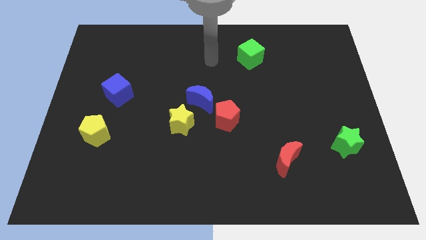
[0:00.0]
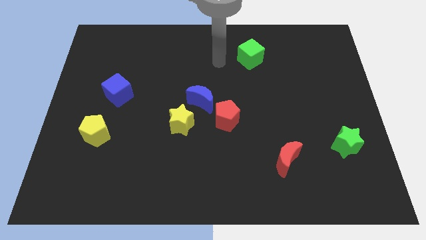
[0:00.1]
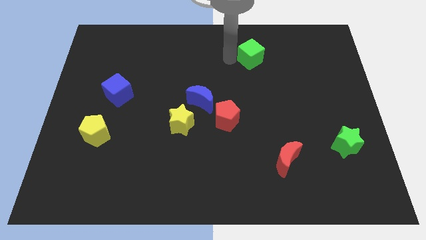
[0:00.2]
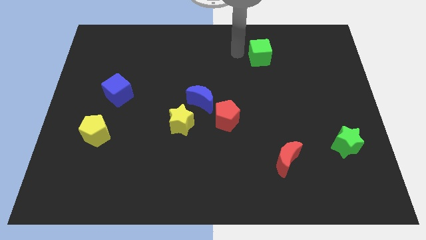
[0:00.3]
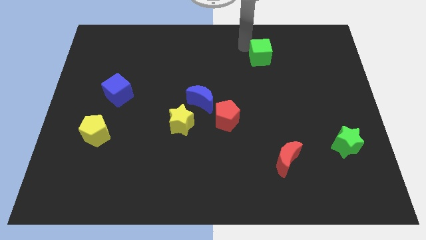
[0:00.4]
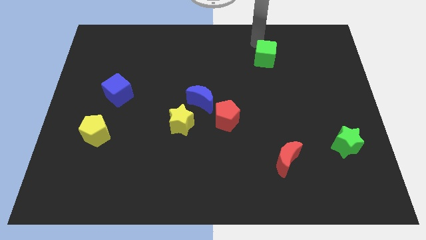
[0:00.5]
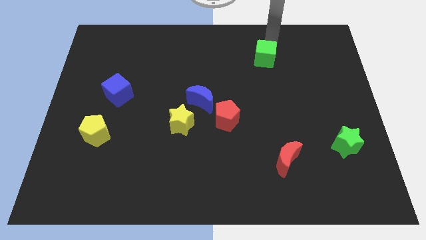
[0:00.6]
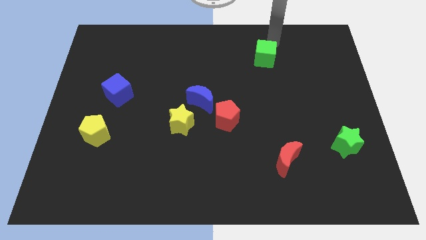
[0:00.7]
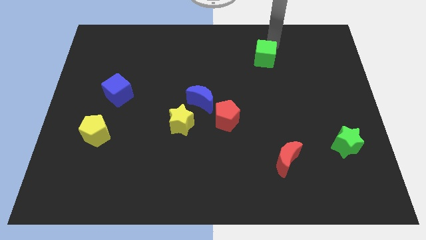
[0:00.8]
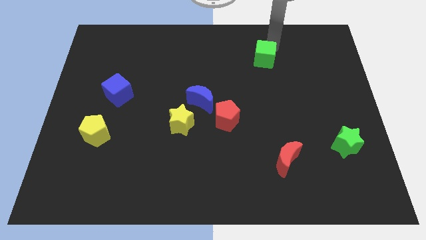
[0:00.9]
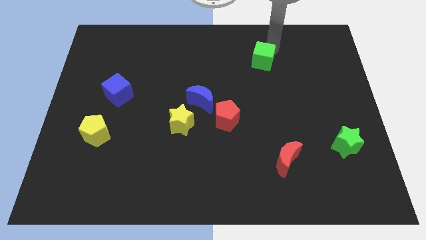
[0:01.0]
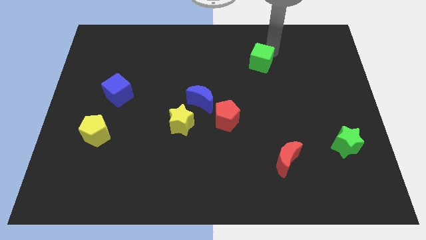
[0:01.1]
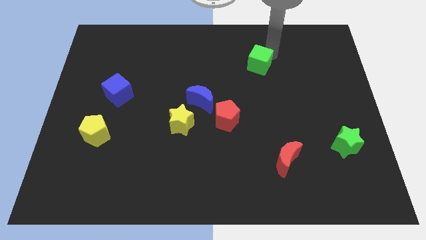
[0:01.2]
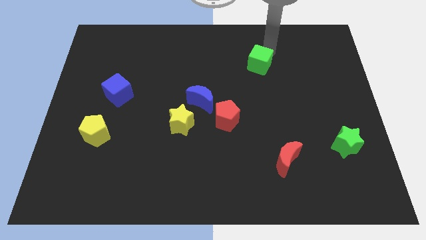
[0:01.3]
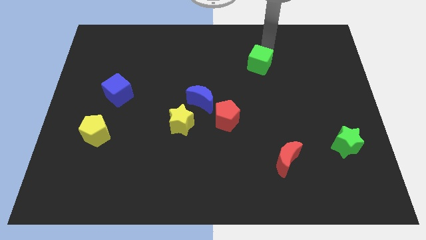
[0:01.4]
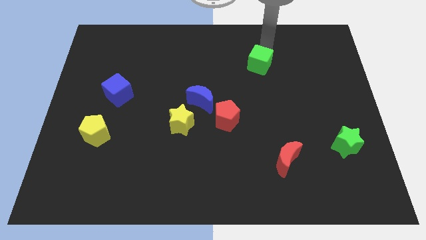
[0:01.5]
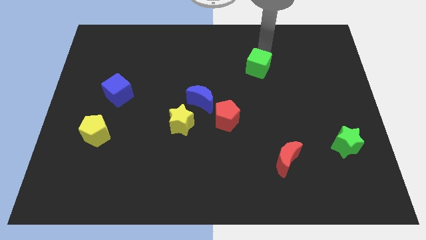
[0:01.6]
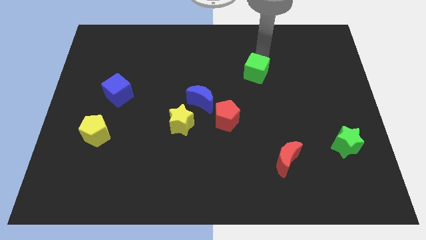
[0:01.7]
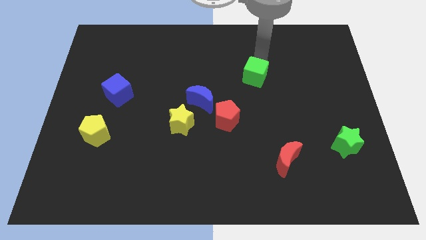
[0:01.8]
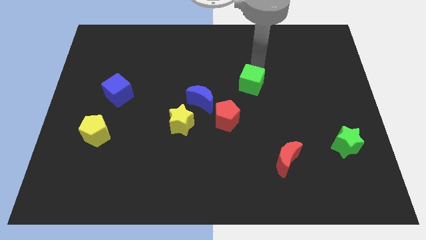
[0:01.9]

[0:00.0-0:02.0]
push the green cube down somewhat

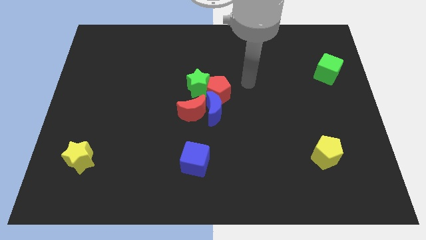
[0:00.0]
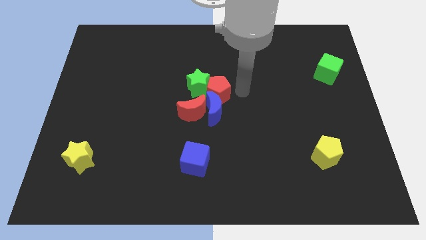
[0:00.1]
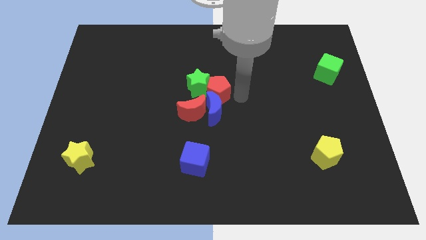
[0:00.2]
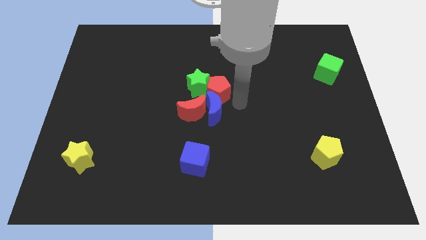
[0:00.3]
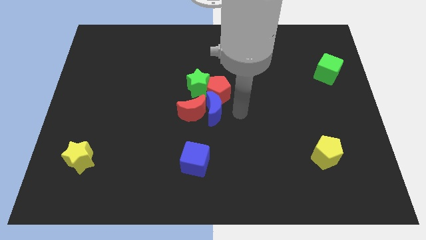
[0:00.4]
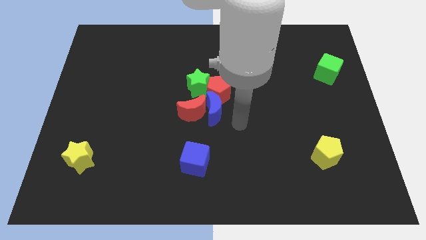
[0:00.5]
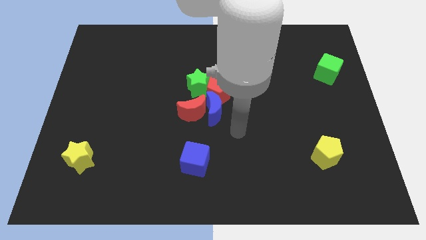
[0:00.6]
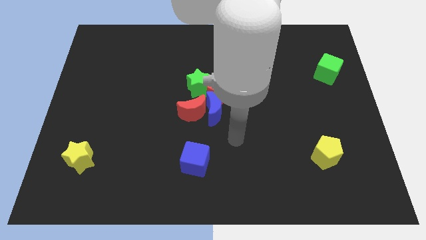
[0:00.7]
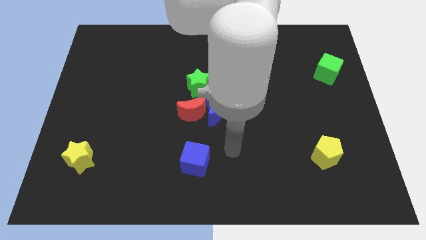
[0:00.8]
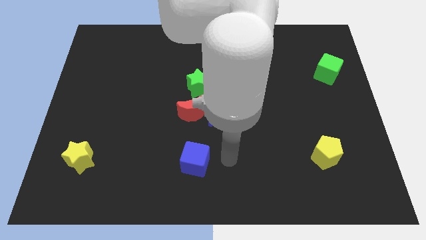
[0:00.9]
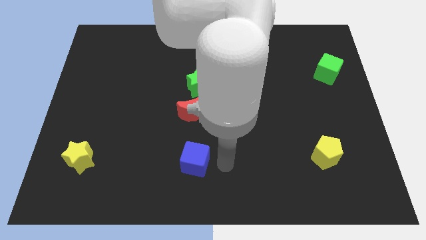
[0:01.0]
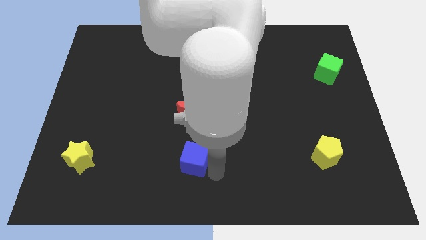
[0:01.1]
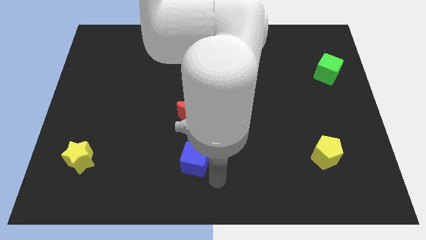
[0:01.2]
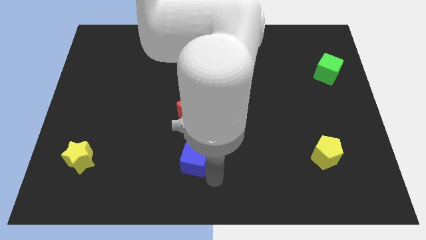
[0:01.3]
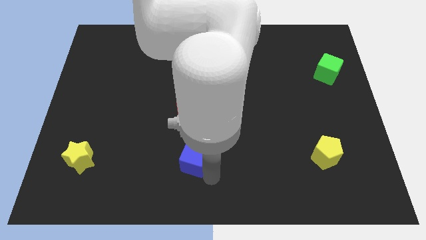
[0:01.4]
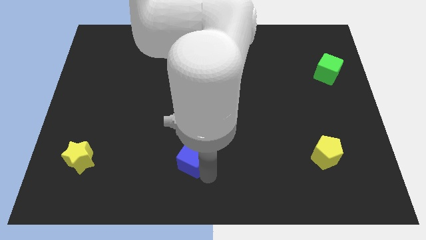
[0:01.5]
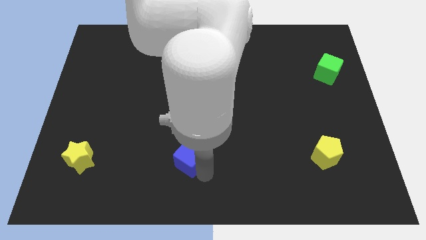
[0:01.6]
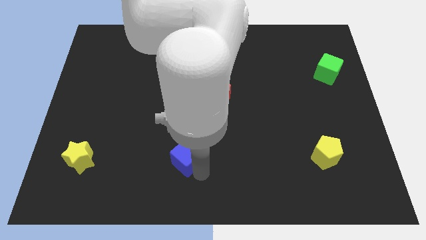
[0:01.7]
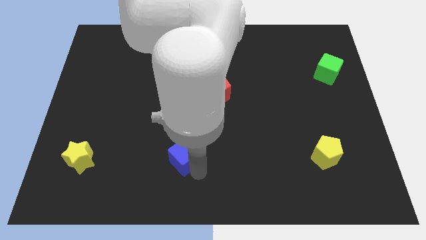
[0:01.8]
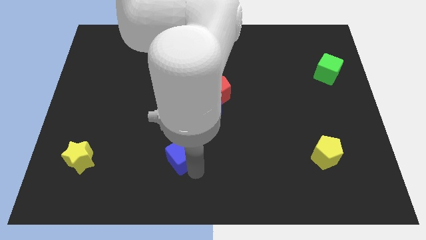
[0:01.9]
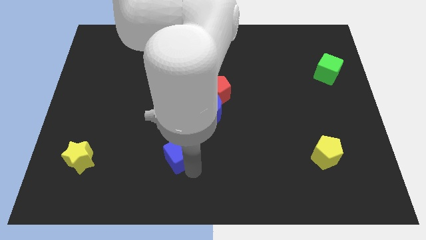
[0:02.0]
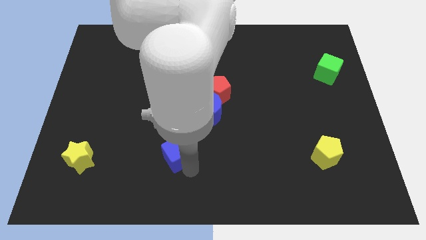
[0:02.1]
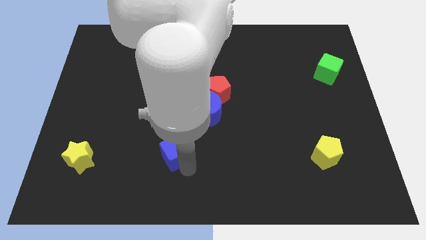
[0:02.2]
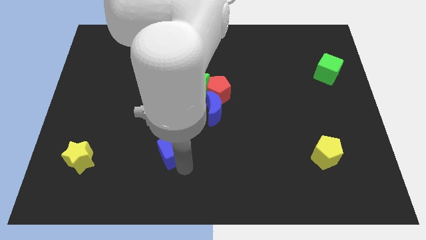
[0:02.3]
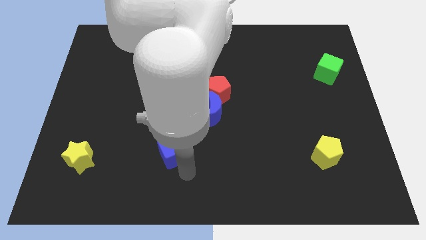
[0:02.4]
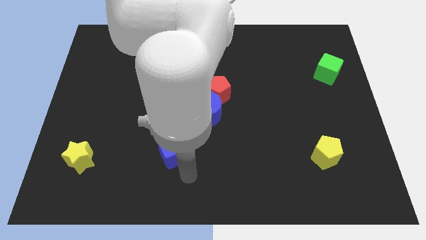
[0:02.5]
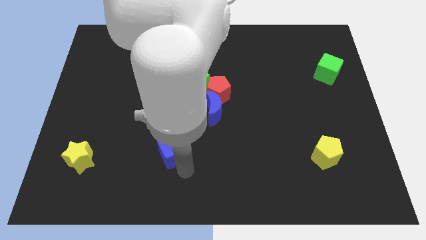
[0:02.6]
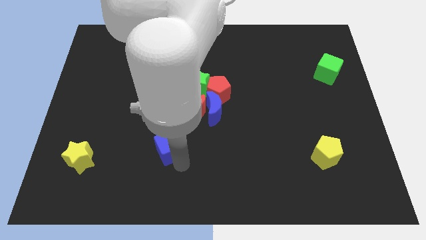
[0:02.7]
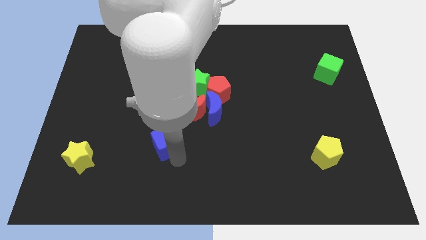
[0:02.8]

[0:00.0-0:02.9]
move the blue cube a bit diagonally up and to the left

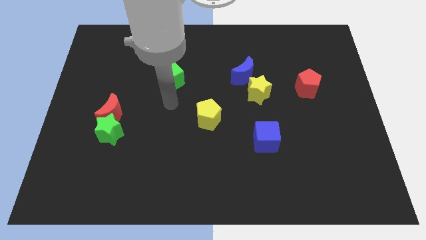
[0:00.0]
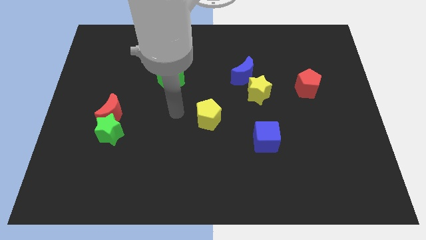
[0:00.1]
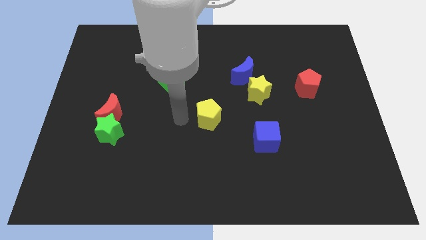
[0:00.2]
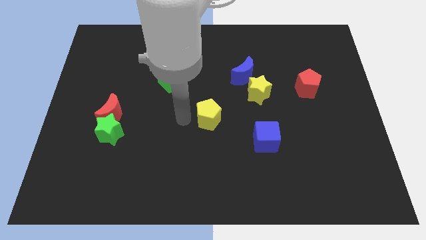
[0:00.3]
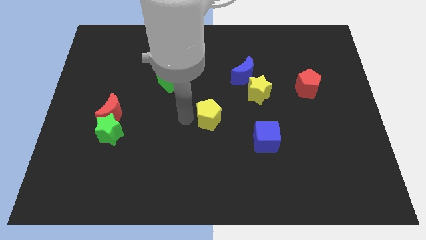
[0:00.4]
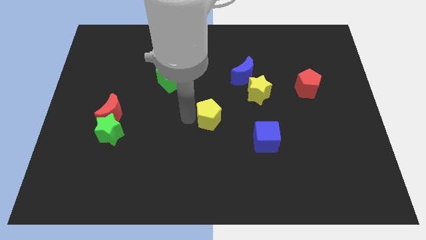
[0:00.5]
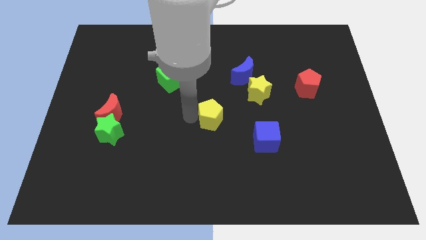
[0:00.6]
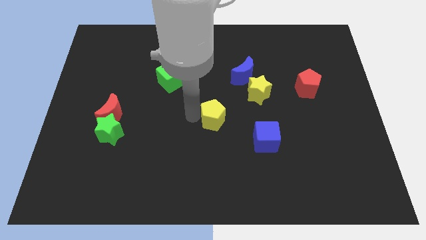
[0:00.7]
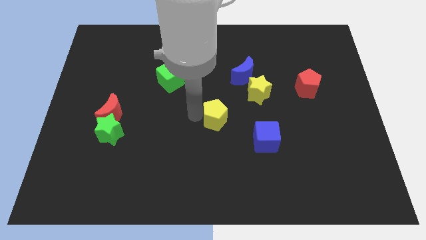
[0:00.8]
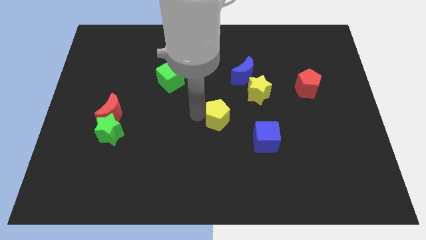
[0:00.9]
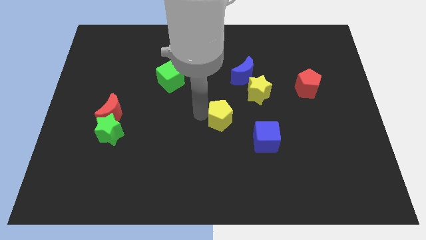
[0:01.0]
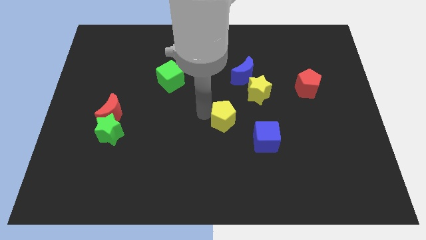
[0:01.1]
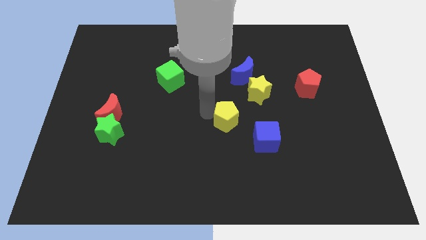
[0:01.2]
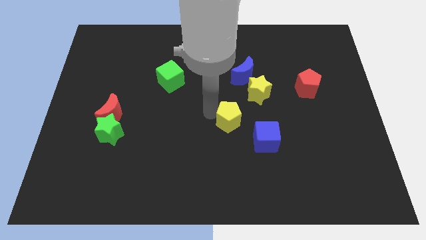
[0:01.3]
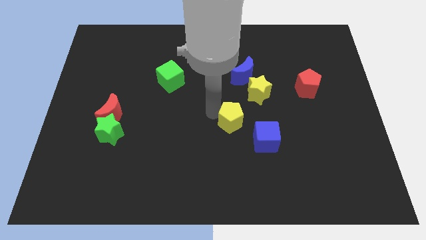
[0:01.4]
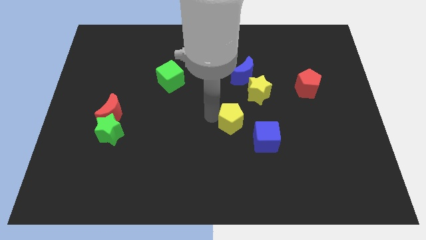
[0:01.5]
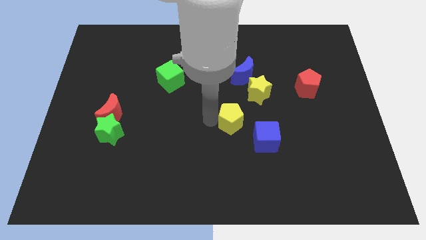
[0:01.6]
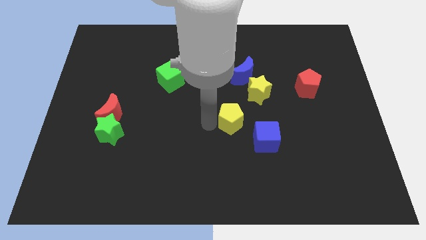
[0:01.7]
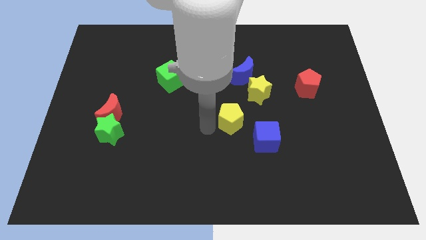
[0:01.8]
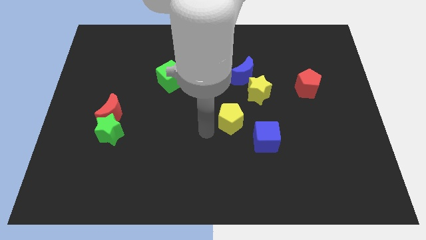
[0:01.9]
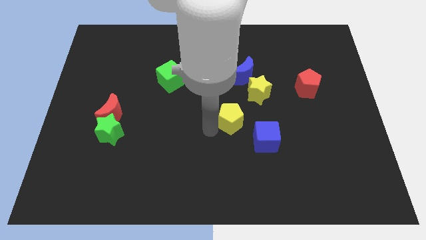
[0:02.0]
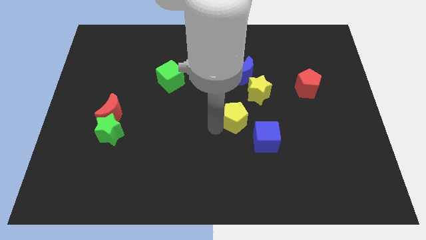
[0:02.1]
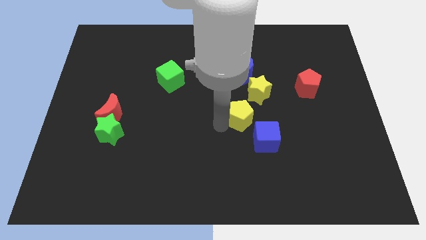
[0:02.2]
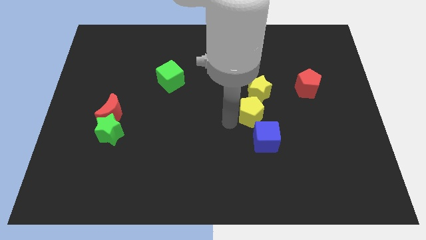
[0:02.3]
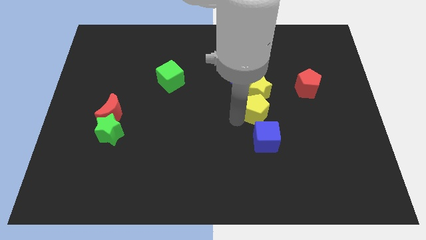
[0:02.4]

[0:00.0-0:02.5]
move the yellow pentagon a little bit up and right

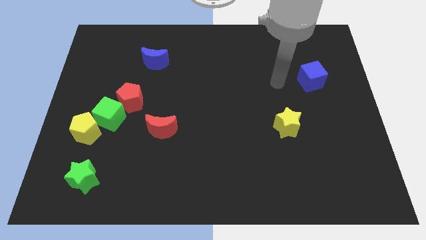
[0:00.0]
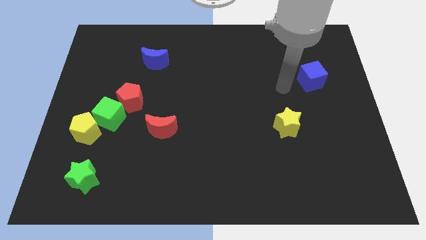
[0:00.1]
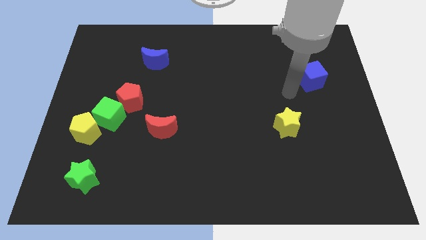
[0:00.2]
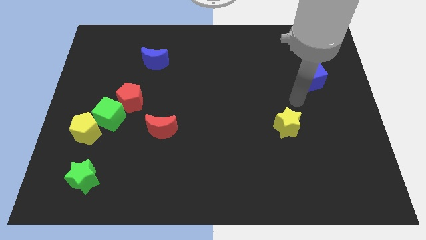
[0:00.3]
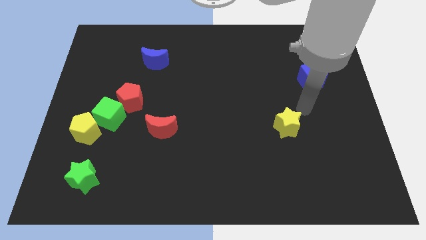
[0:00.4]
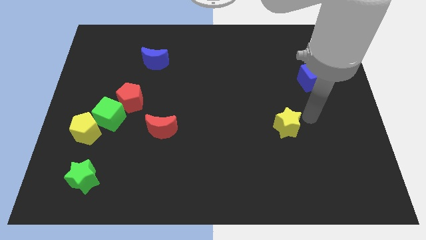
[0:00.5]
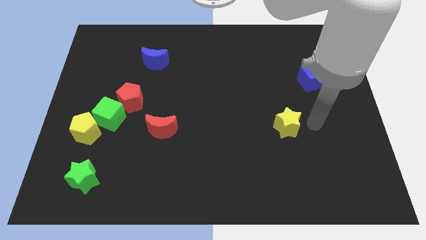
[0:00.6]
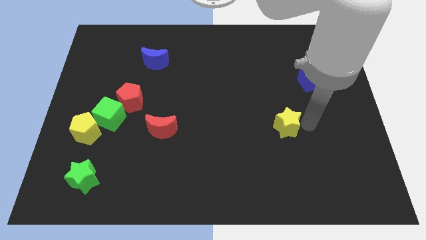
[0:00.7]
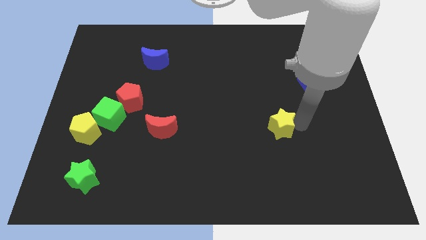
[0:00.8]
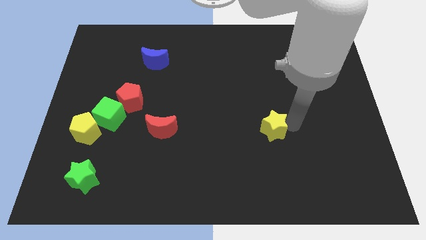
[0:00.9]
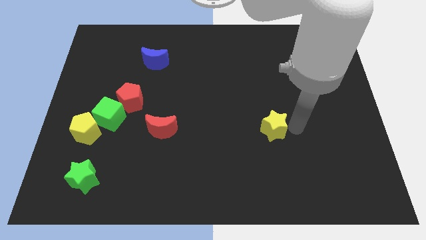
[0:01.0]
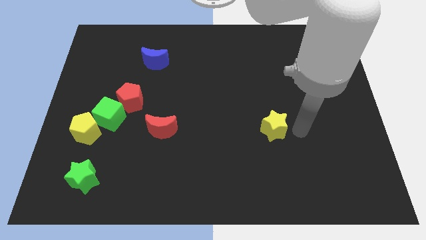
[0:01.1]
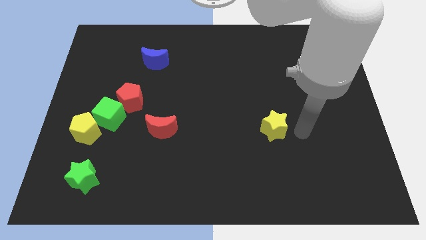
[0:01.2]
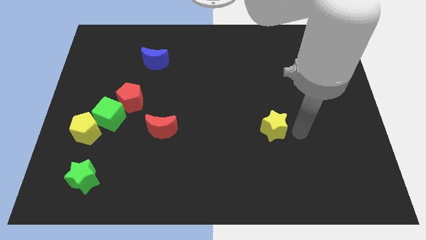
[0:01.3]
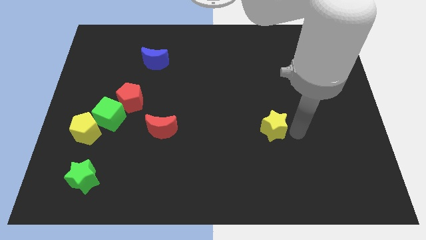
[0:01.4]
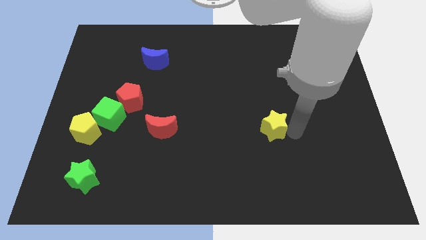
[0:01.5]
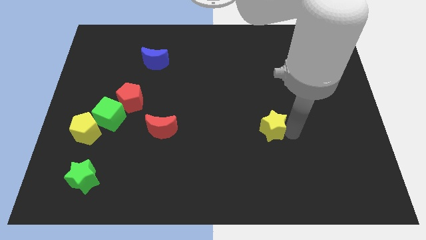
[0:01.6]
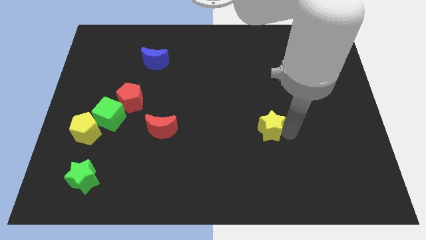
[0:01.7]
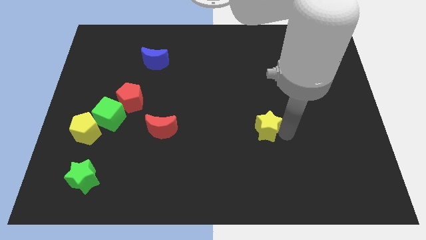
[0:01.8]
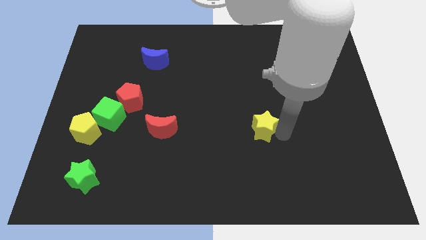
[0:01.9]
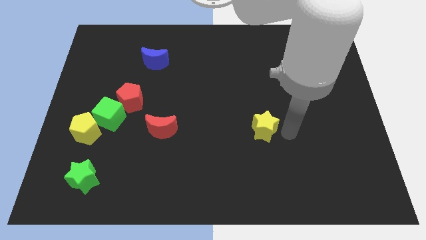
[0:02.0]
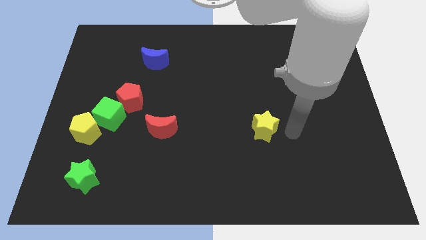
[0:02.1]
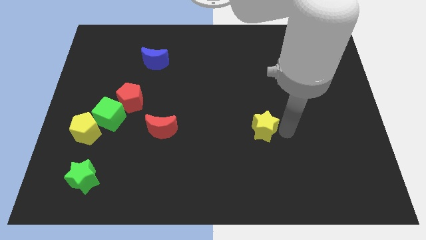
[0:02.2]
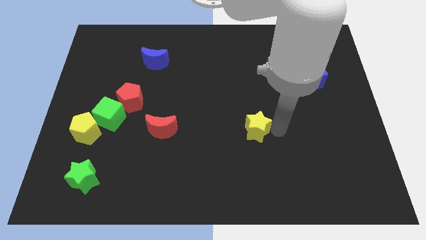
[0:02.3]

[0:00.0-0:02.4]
push the yellow star a little bit to the left
